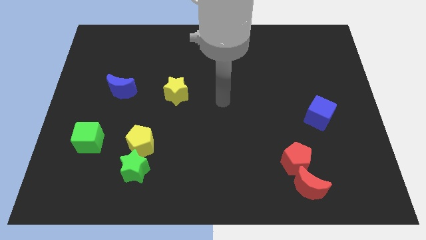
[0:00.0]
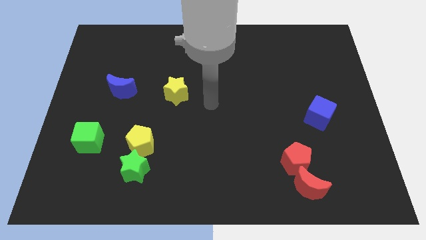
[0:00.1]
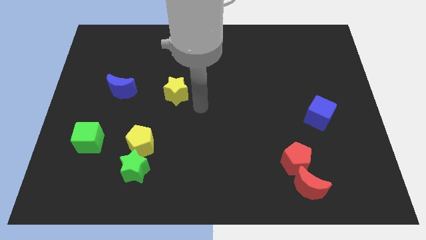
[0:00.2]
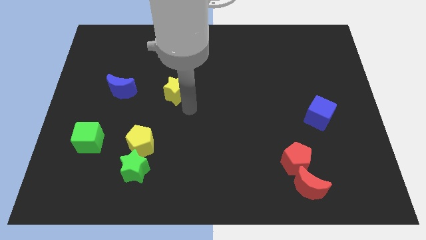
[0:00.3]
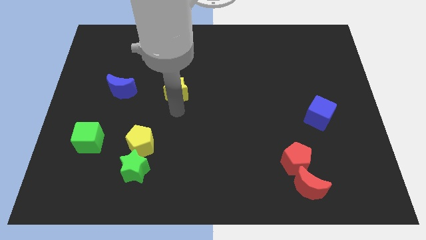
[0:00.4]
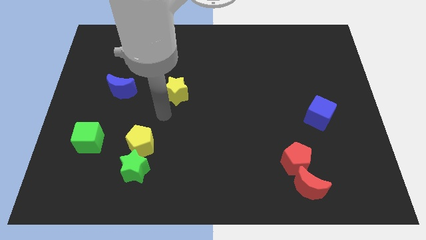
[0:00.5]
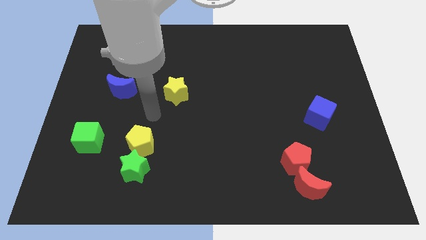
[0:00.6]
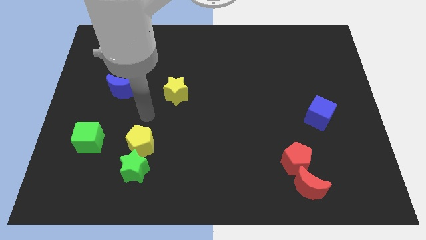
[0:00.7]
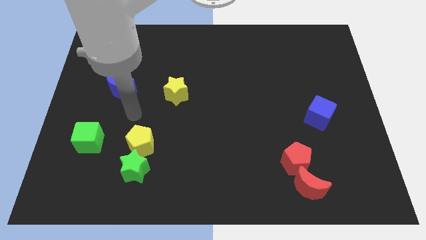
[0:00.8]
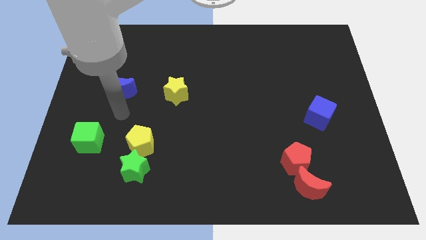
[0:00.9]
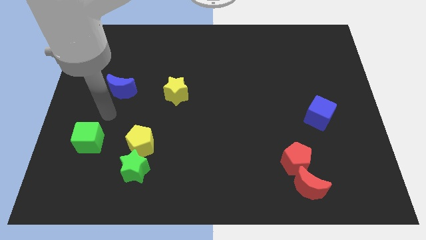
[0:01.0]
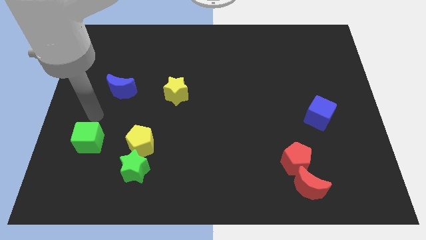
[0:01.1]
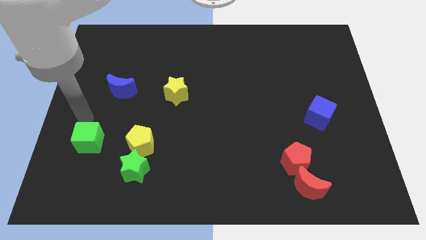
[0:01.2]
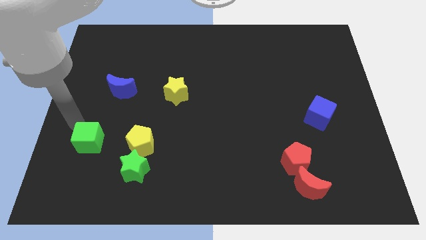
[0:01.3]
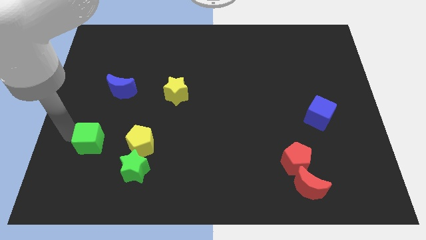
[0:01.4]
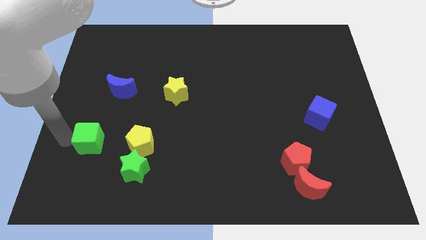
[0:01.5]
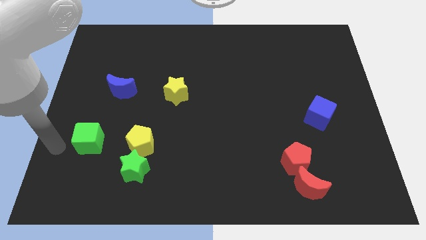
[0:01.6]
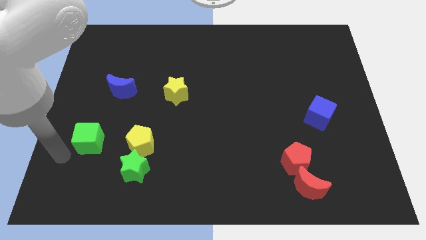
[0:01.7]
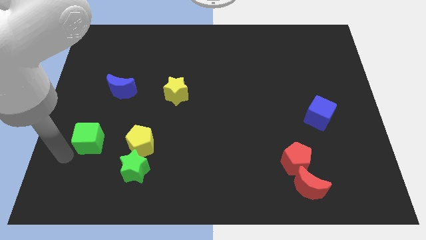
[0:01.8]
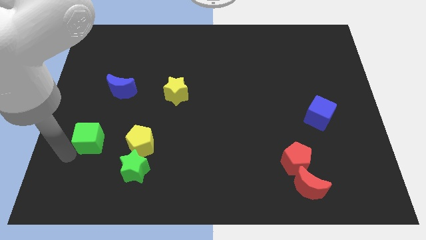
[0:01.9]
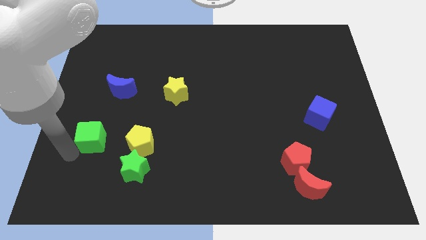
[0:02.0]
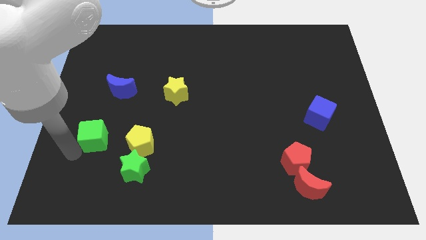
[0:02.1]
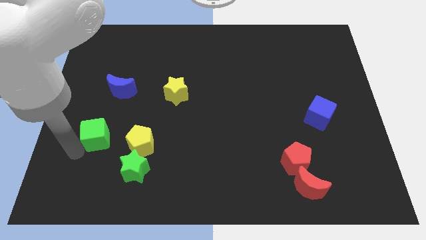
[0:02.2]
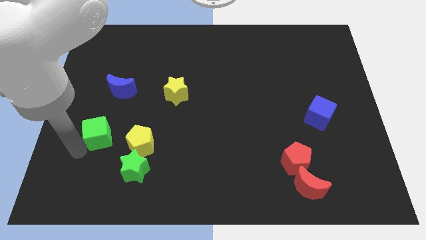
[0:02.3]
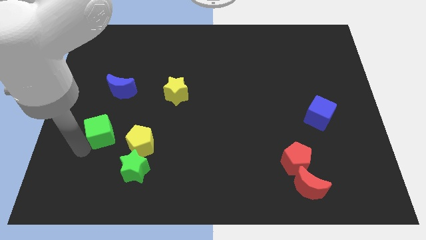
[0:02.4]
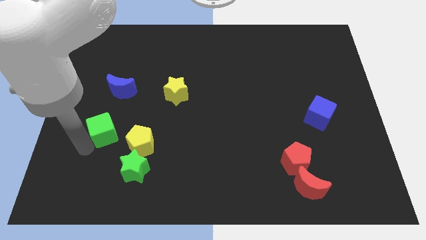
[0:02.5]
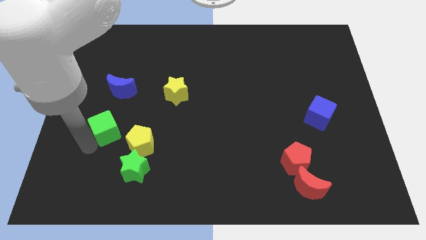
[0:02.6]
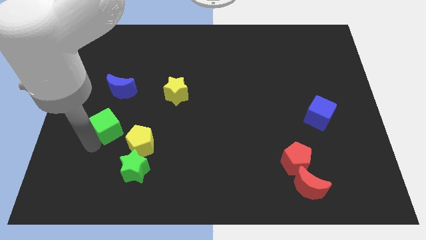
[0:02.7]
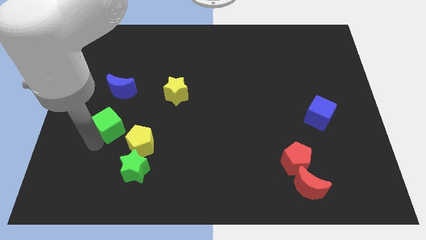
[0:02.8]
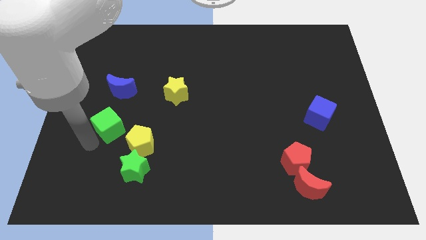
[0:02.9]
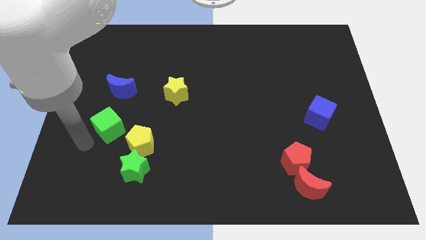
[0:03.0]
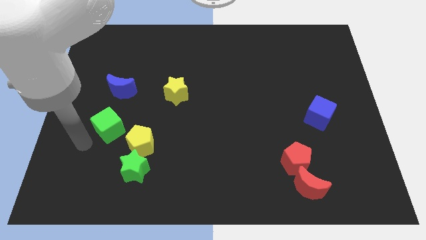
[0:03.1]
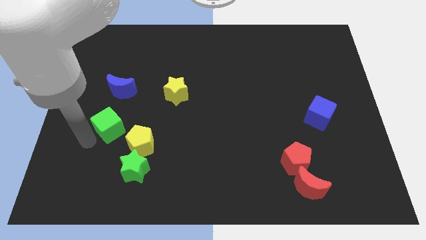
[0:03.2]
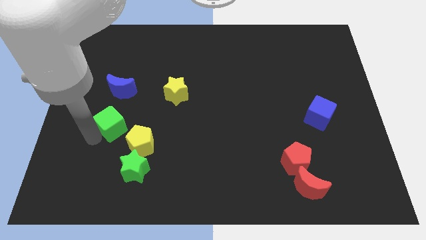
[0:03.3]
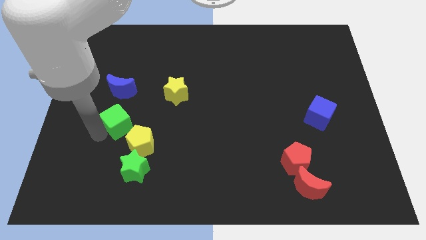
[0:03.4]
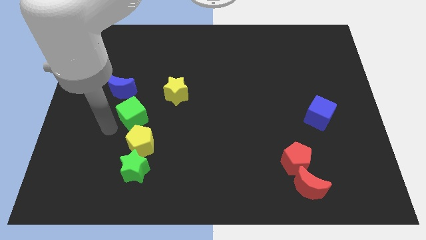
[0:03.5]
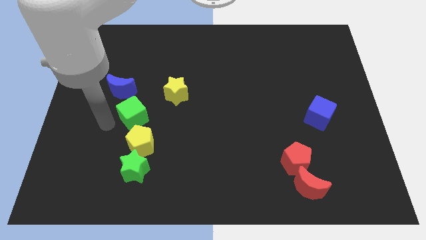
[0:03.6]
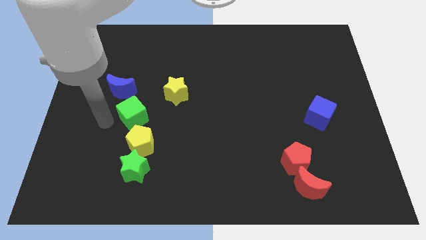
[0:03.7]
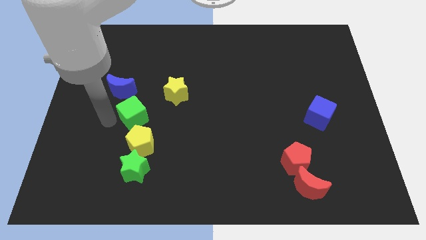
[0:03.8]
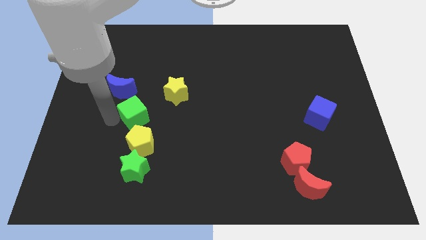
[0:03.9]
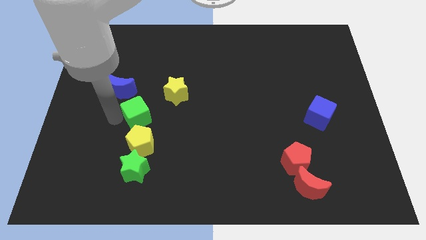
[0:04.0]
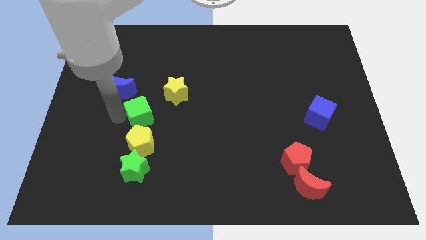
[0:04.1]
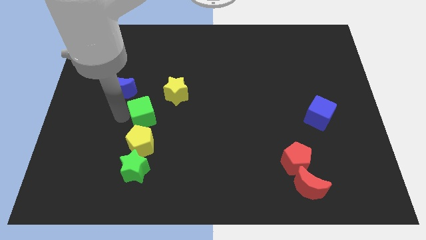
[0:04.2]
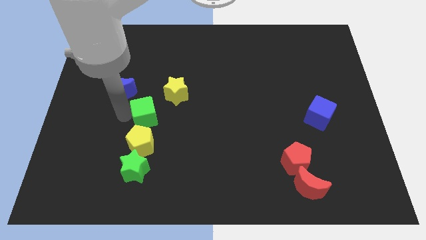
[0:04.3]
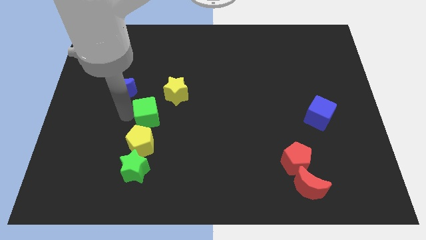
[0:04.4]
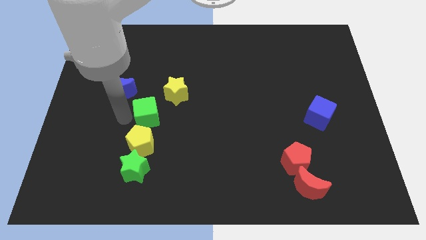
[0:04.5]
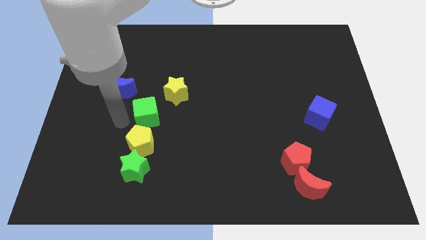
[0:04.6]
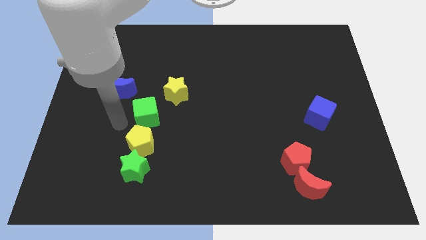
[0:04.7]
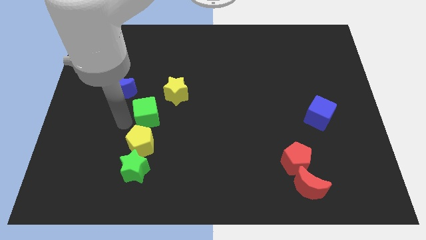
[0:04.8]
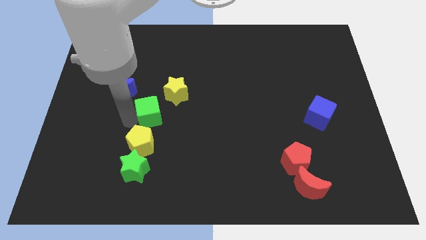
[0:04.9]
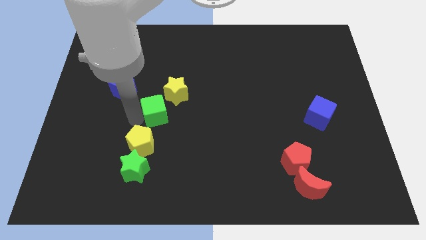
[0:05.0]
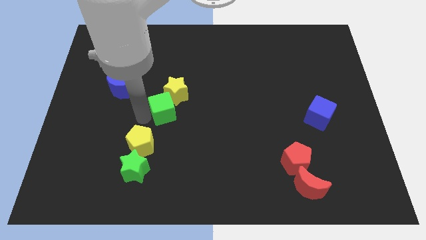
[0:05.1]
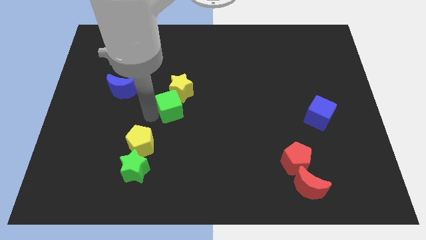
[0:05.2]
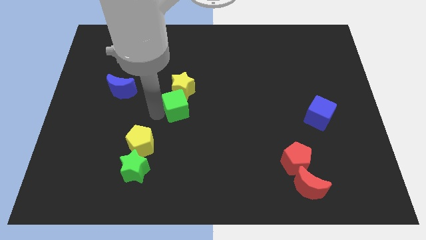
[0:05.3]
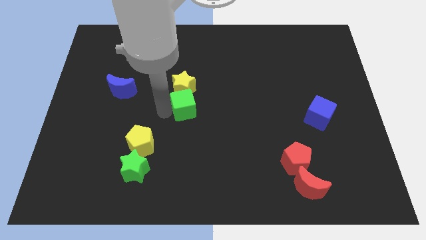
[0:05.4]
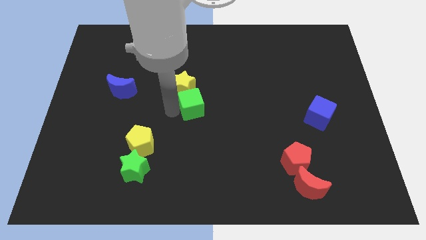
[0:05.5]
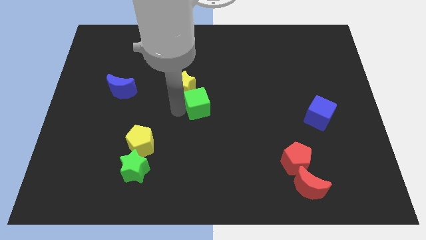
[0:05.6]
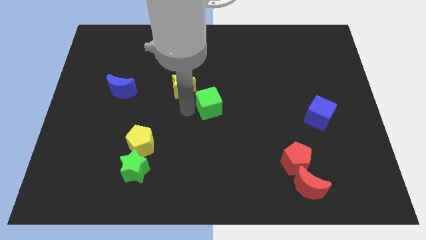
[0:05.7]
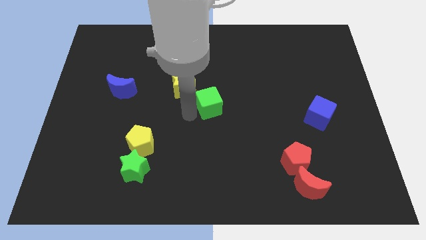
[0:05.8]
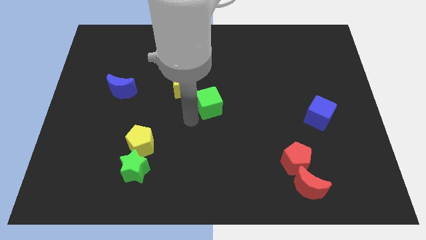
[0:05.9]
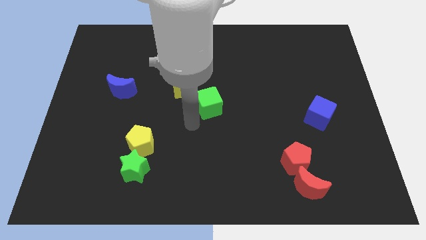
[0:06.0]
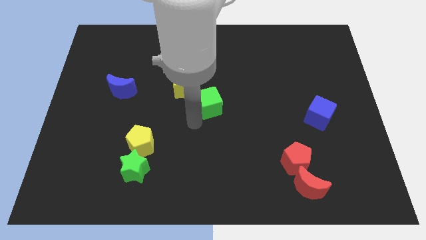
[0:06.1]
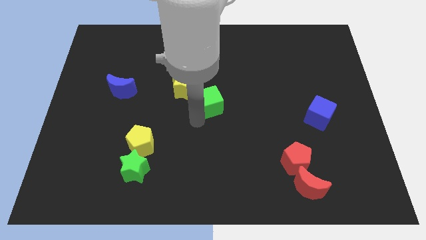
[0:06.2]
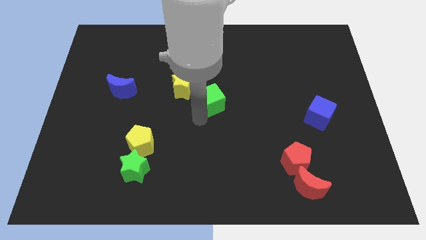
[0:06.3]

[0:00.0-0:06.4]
move the green cube right of the yellow star
